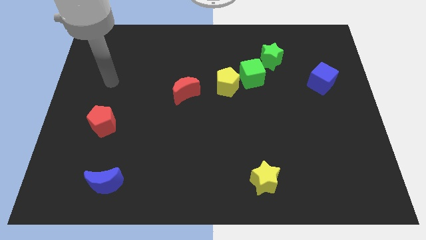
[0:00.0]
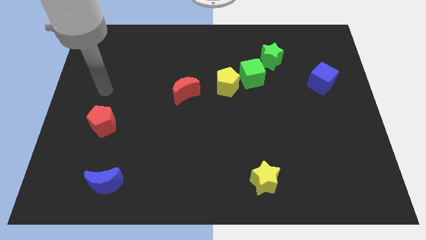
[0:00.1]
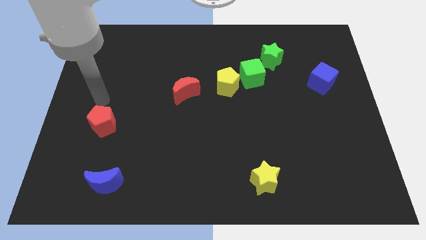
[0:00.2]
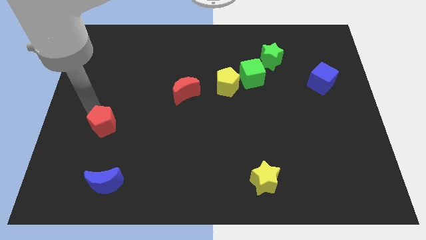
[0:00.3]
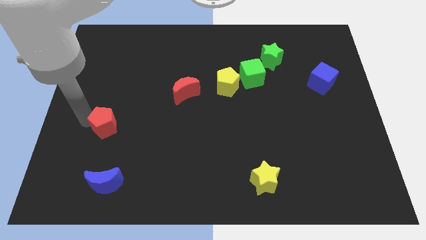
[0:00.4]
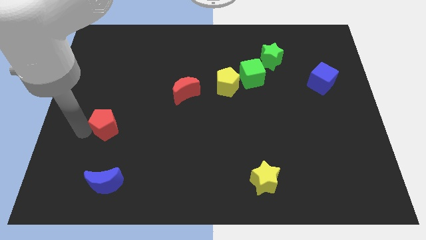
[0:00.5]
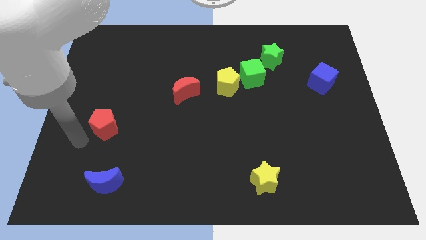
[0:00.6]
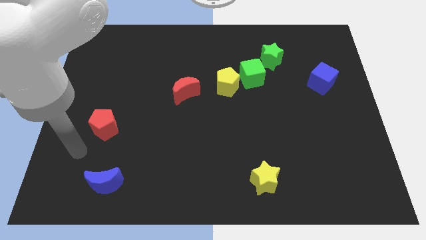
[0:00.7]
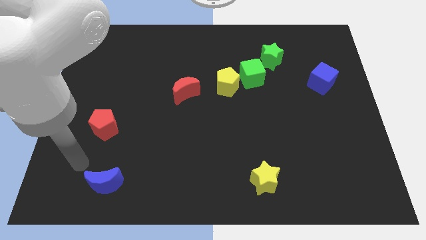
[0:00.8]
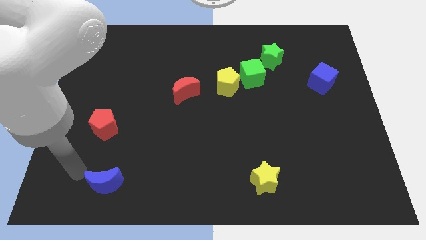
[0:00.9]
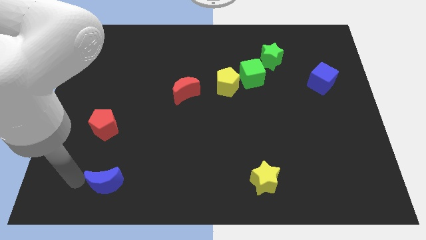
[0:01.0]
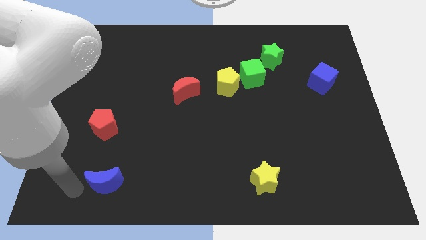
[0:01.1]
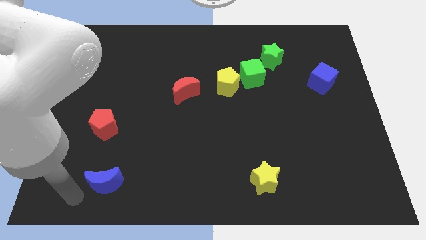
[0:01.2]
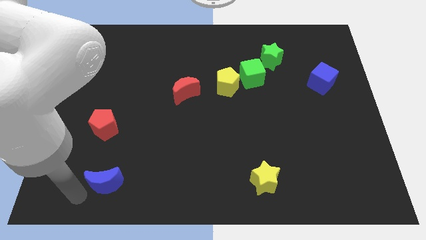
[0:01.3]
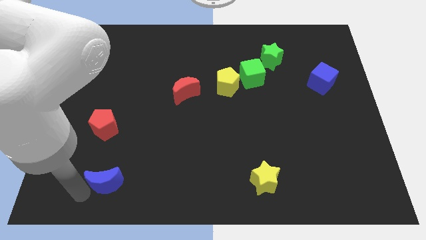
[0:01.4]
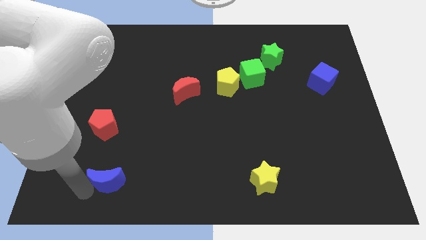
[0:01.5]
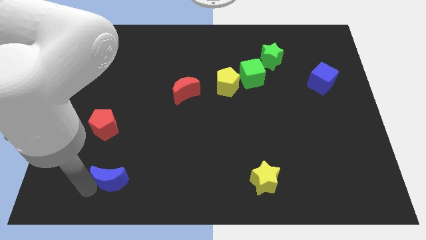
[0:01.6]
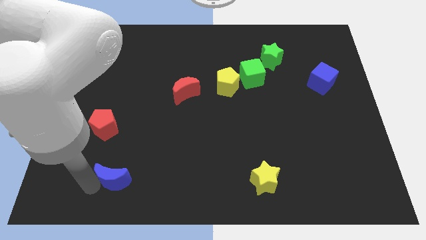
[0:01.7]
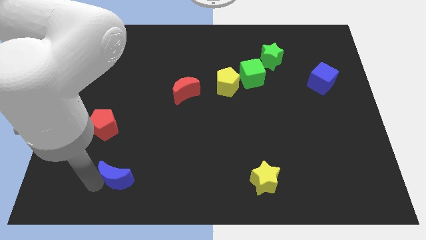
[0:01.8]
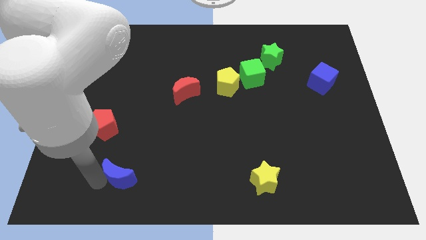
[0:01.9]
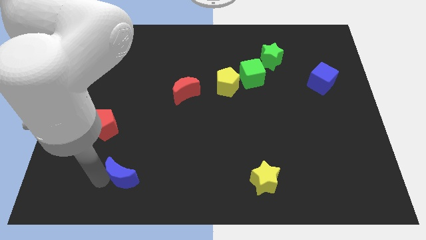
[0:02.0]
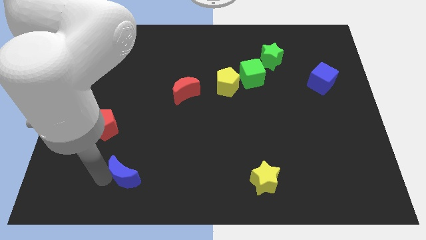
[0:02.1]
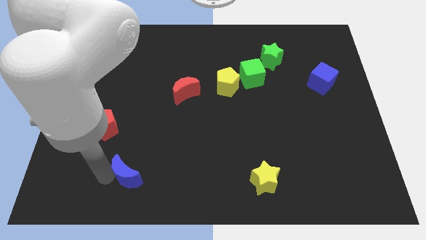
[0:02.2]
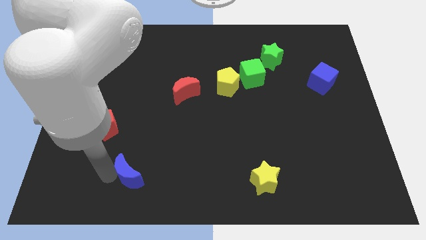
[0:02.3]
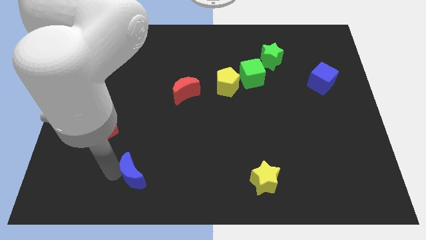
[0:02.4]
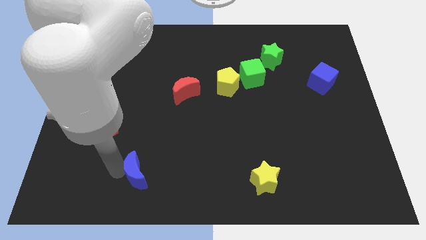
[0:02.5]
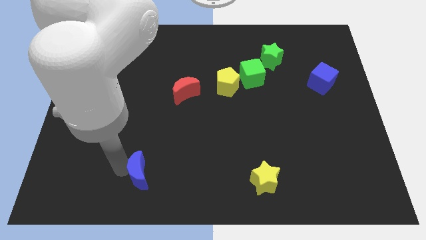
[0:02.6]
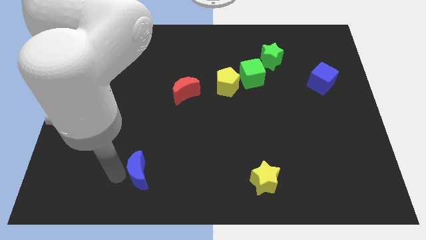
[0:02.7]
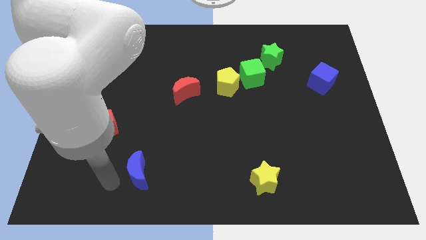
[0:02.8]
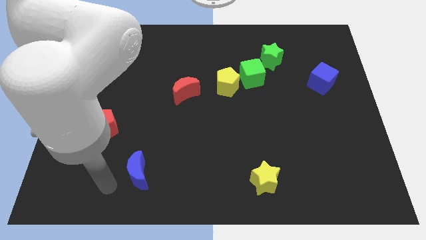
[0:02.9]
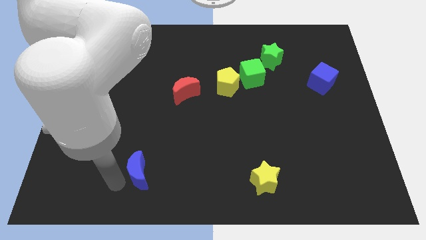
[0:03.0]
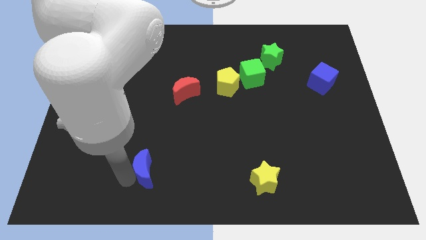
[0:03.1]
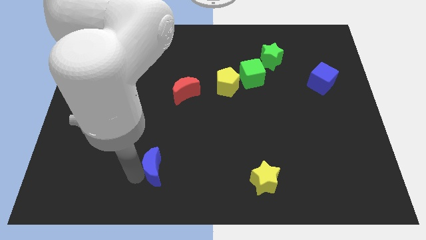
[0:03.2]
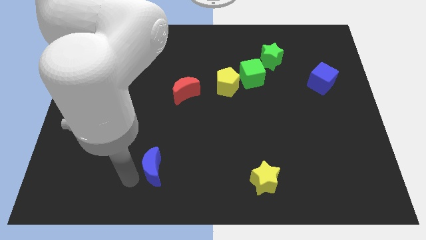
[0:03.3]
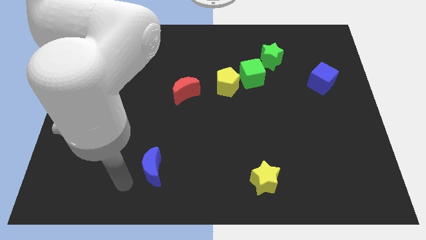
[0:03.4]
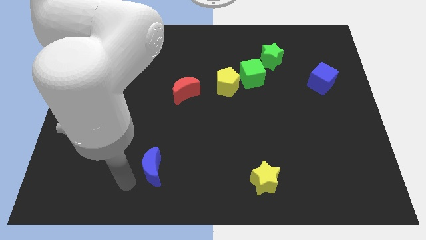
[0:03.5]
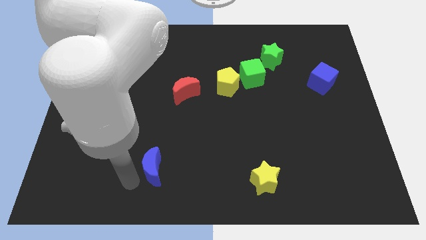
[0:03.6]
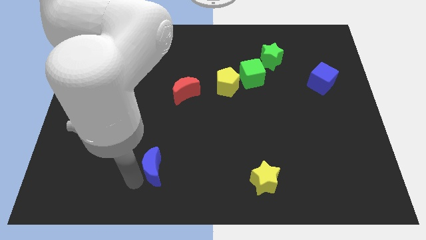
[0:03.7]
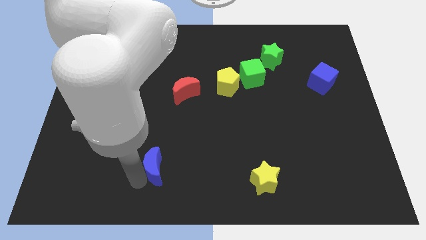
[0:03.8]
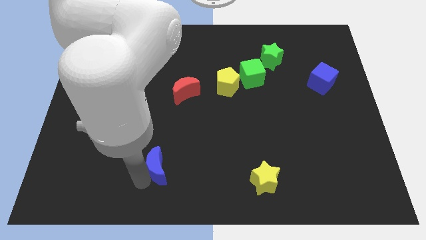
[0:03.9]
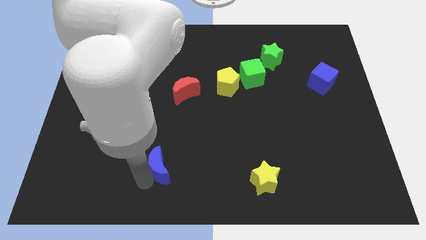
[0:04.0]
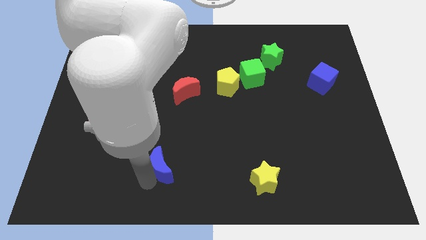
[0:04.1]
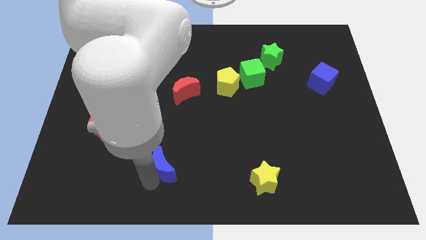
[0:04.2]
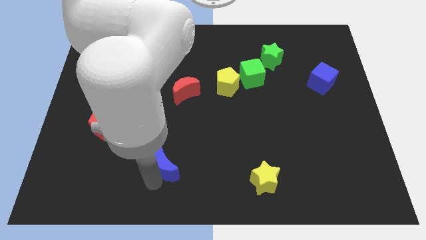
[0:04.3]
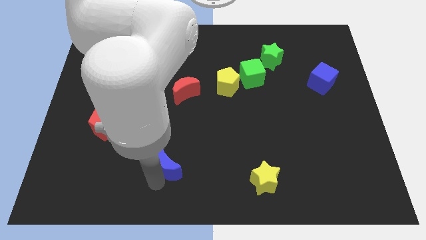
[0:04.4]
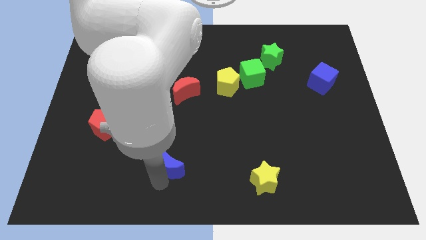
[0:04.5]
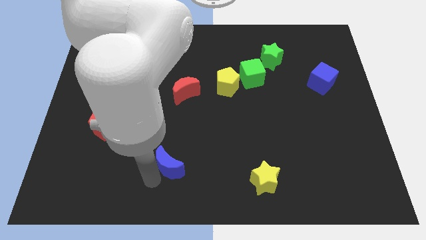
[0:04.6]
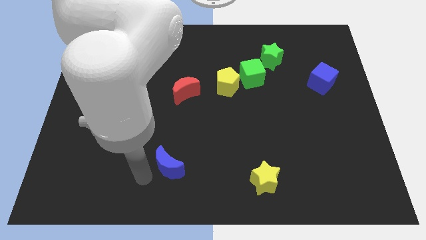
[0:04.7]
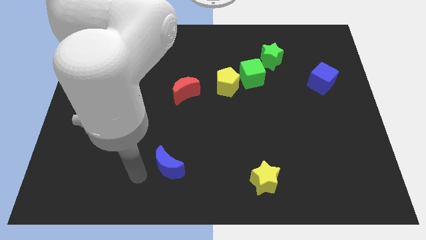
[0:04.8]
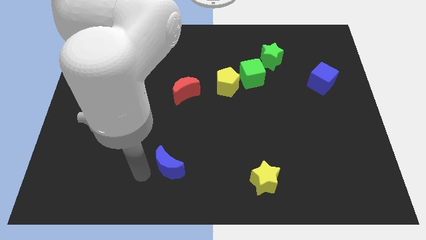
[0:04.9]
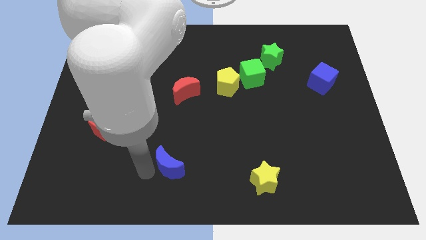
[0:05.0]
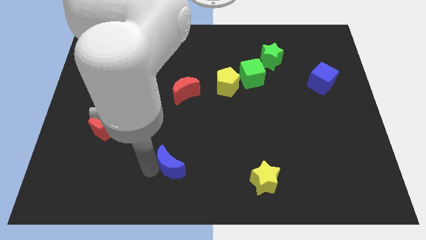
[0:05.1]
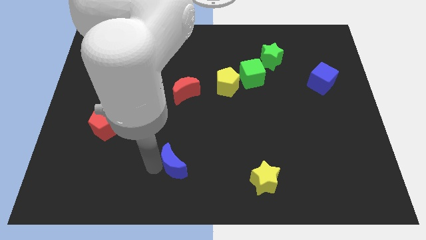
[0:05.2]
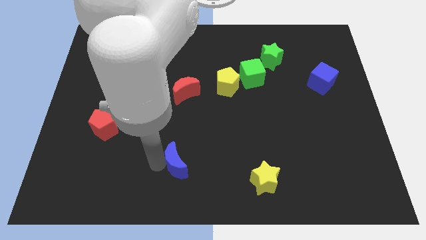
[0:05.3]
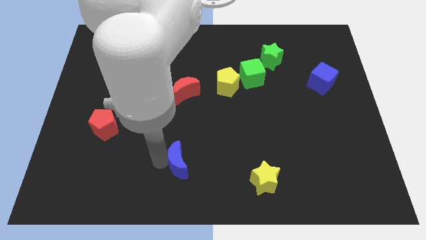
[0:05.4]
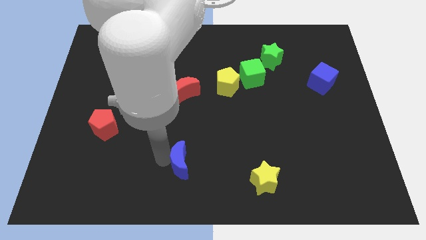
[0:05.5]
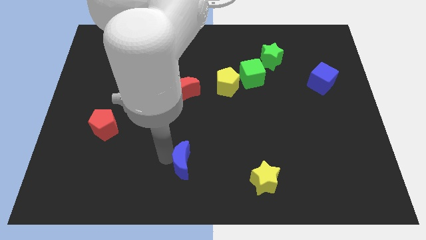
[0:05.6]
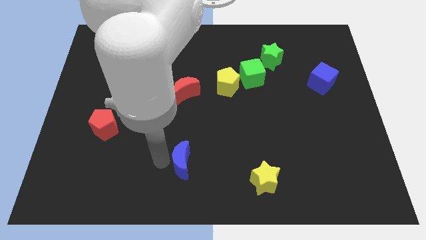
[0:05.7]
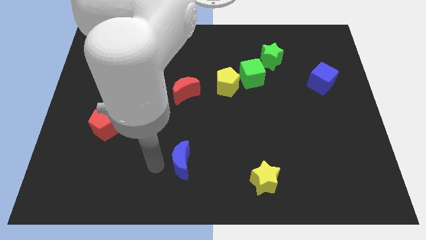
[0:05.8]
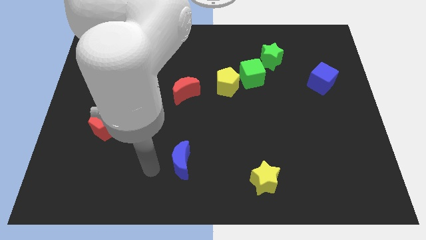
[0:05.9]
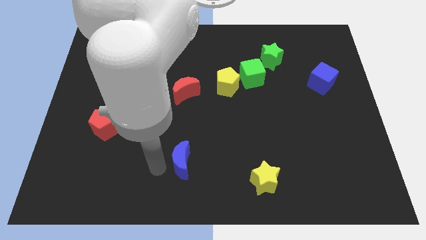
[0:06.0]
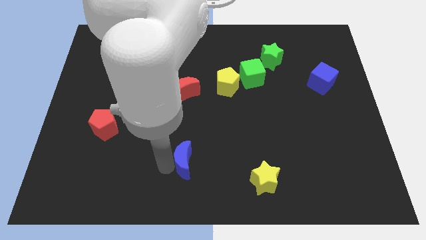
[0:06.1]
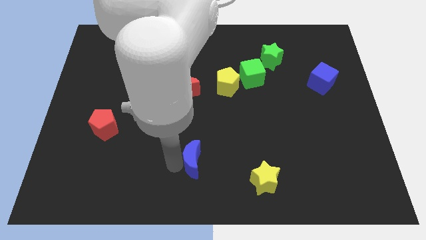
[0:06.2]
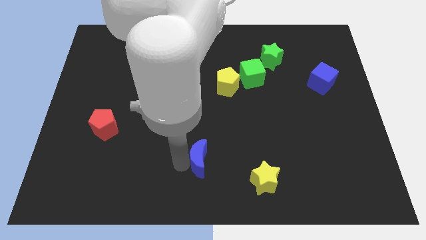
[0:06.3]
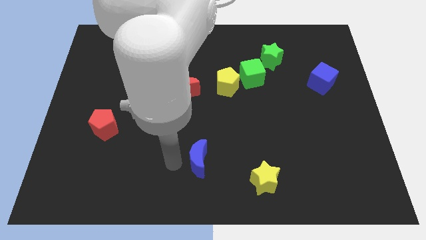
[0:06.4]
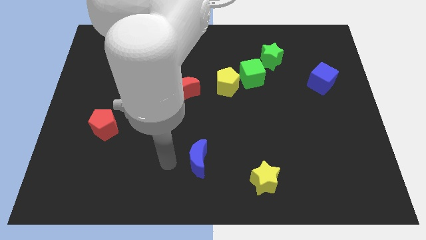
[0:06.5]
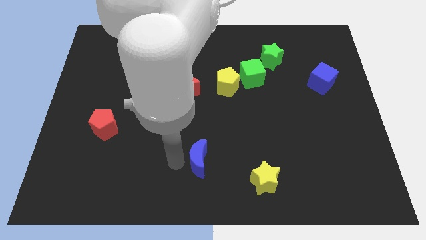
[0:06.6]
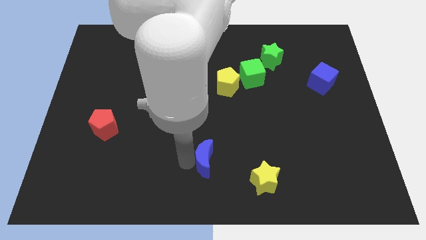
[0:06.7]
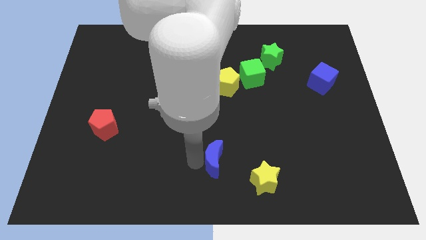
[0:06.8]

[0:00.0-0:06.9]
slide the blue moon to the top left of the yellow star

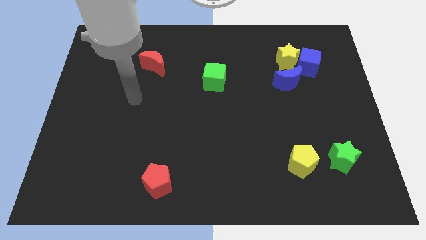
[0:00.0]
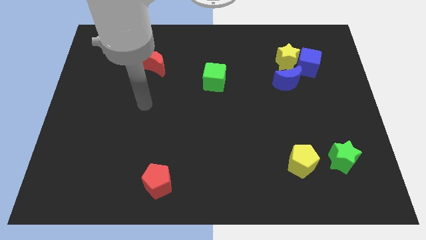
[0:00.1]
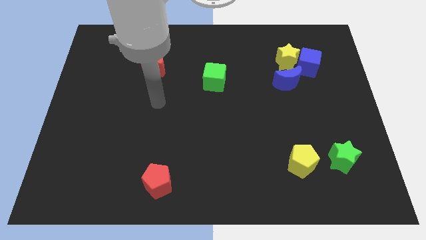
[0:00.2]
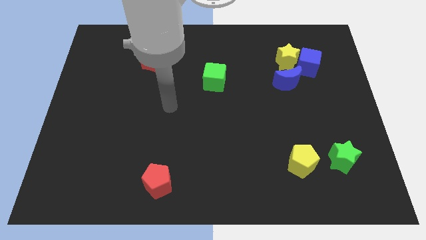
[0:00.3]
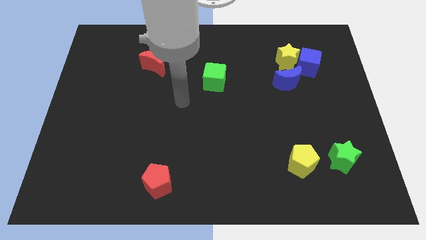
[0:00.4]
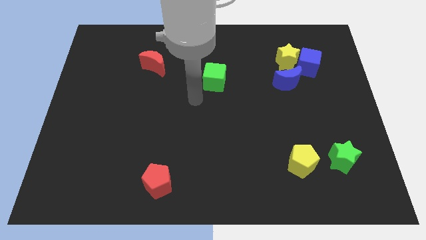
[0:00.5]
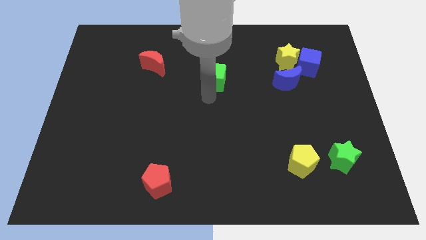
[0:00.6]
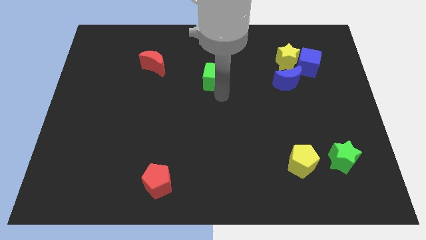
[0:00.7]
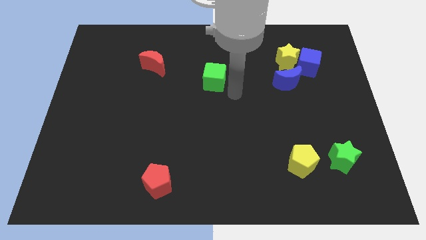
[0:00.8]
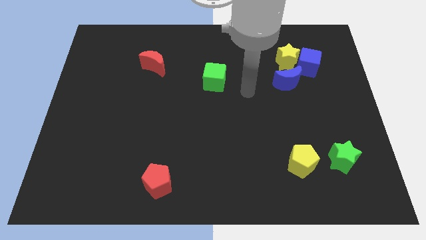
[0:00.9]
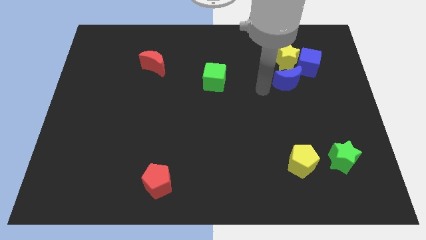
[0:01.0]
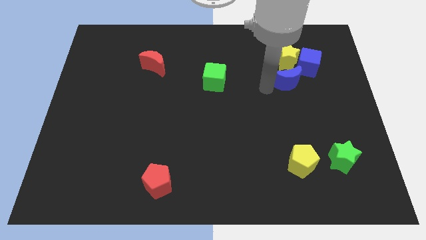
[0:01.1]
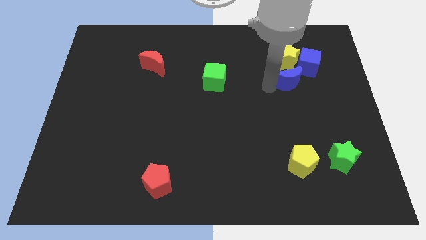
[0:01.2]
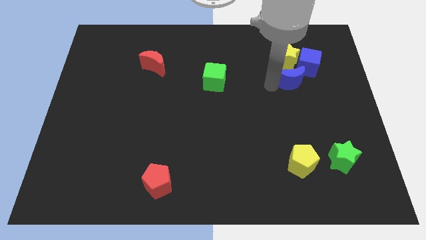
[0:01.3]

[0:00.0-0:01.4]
move the blue moon to the bottom right side of the yellow star
